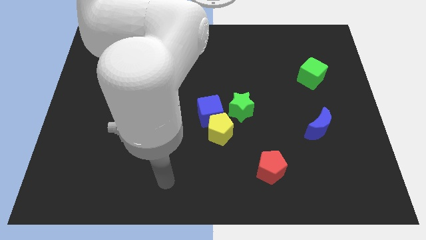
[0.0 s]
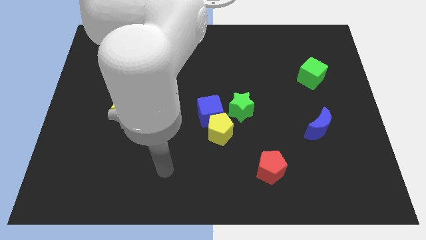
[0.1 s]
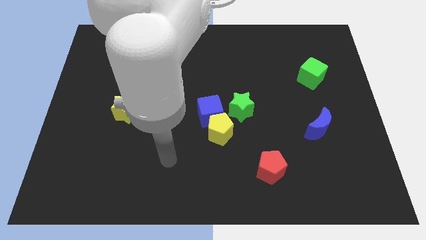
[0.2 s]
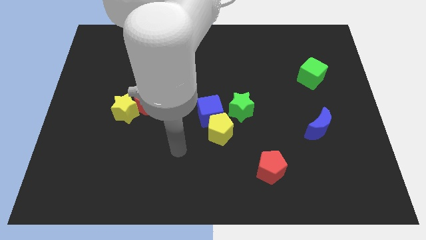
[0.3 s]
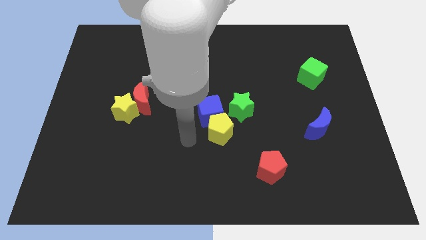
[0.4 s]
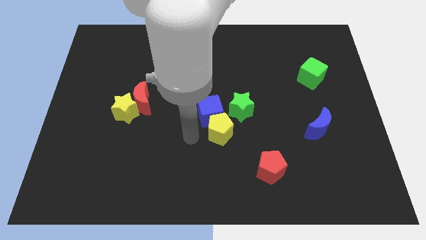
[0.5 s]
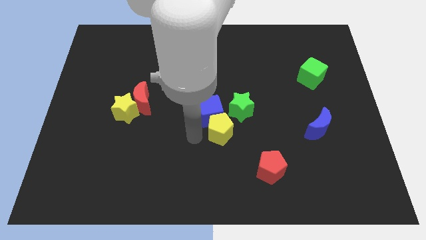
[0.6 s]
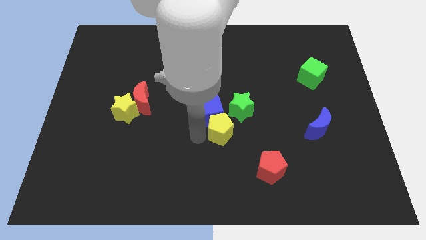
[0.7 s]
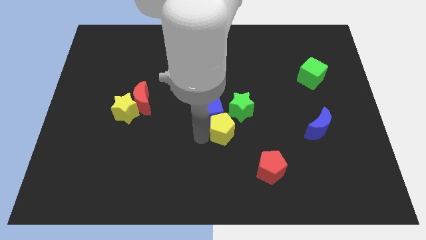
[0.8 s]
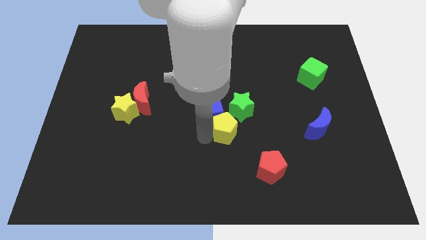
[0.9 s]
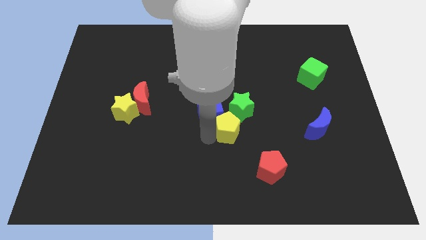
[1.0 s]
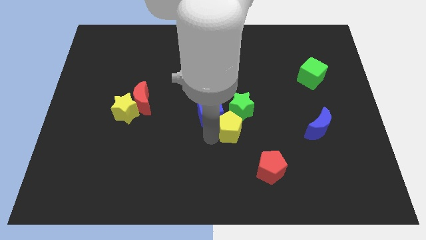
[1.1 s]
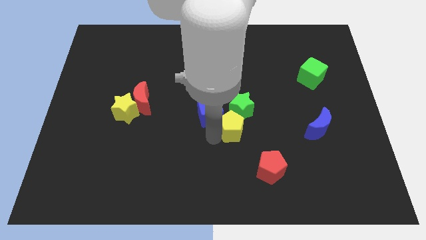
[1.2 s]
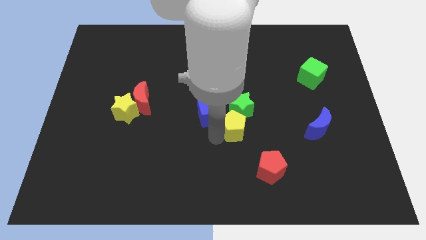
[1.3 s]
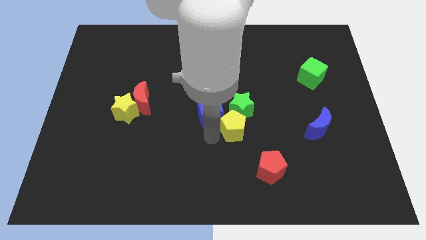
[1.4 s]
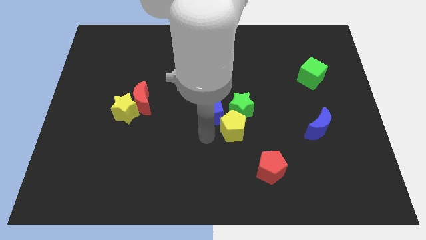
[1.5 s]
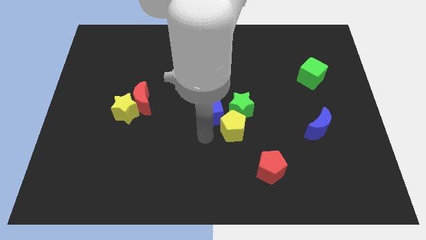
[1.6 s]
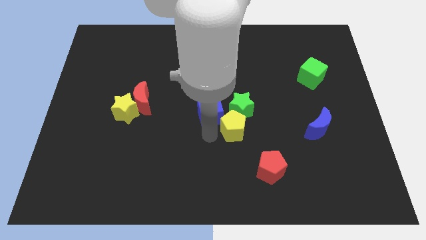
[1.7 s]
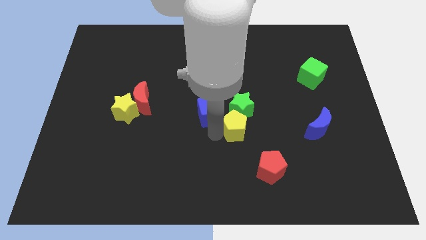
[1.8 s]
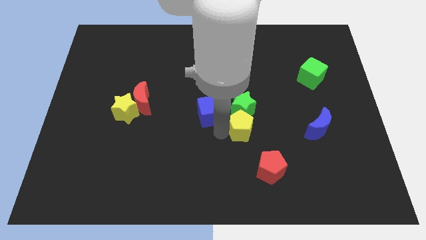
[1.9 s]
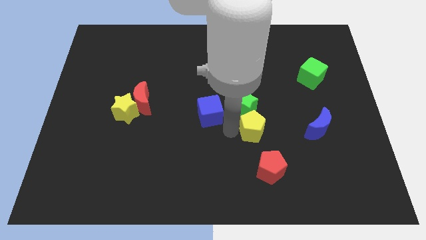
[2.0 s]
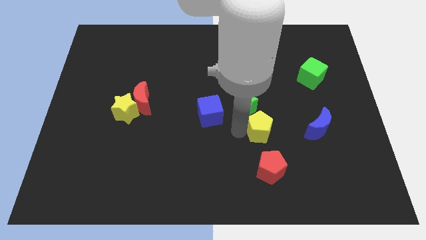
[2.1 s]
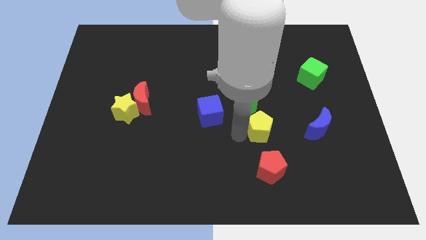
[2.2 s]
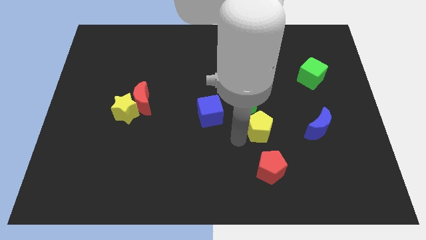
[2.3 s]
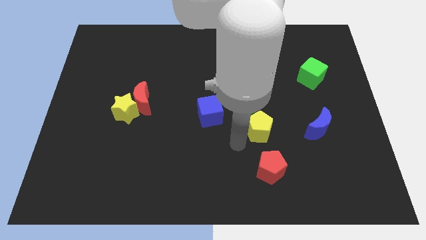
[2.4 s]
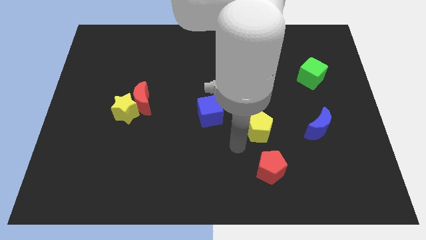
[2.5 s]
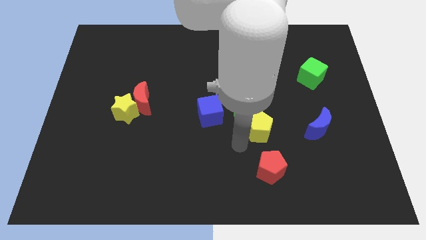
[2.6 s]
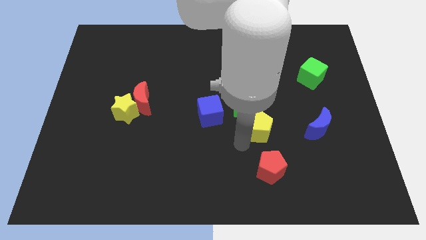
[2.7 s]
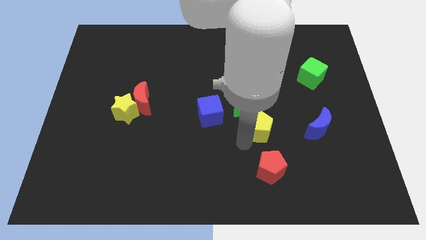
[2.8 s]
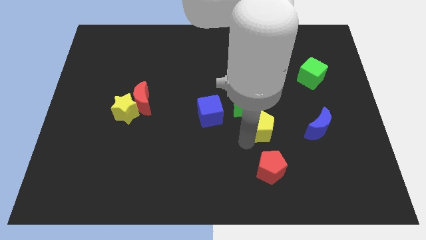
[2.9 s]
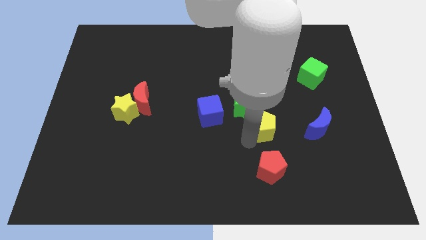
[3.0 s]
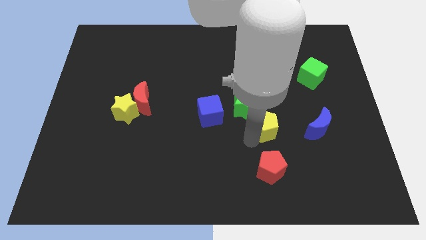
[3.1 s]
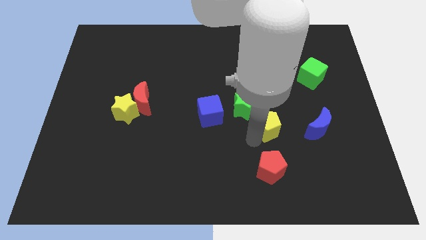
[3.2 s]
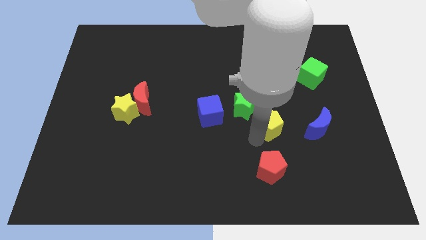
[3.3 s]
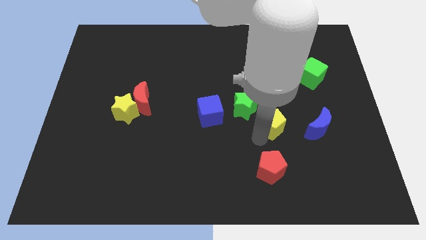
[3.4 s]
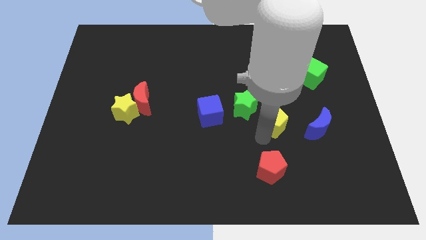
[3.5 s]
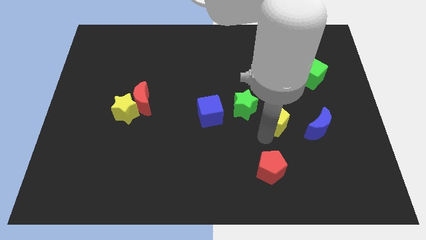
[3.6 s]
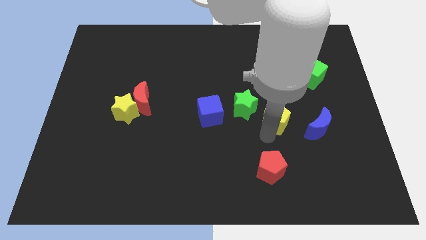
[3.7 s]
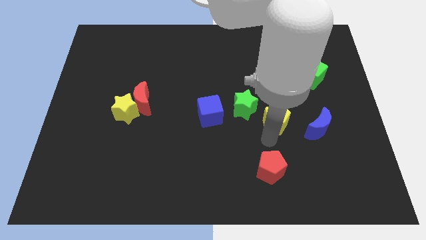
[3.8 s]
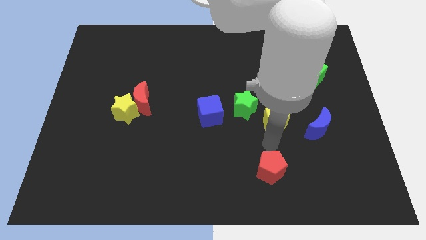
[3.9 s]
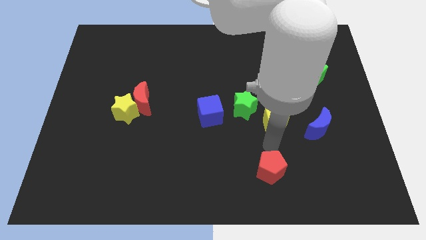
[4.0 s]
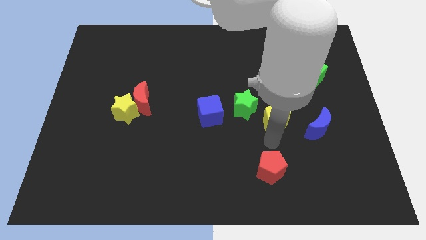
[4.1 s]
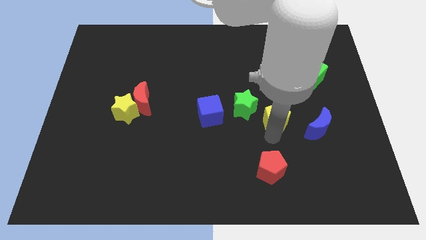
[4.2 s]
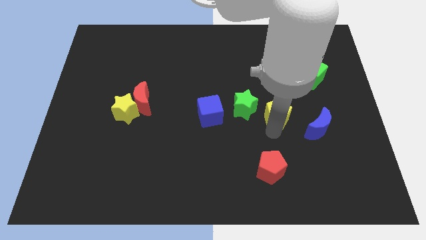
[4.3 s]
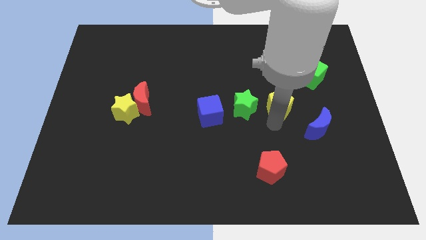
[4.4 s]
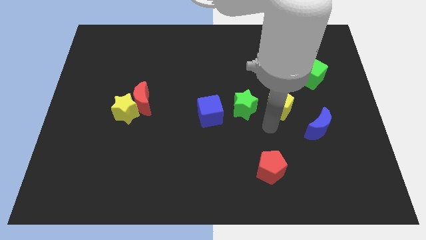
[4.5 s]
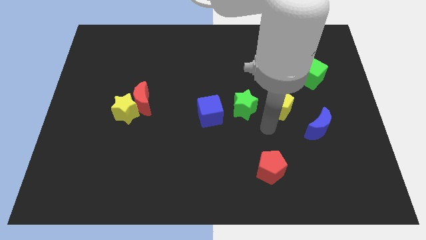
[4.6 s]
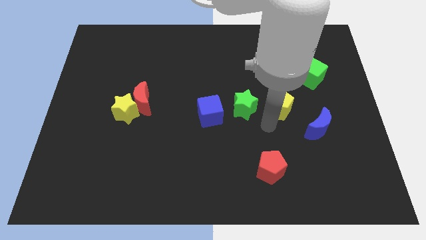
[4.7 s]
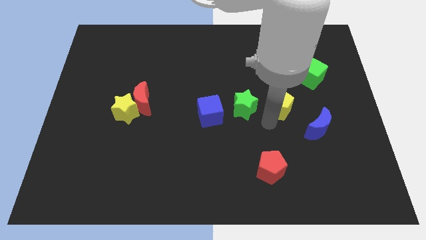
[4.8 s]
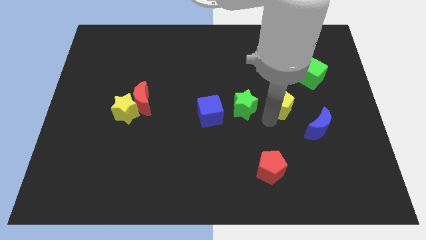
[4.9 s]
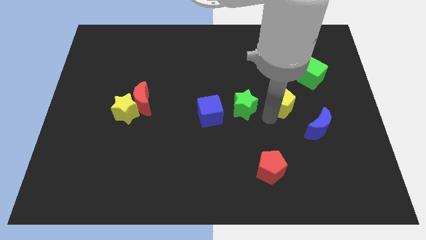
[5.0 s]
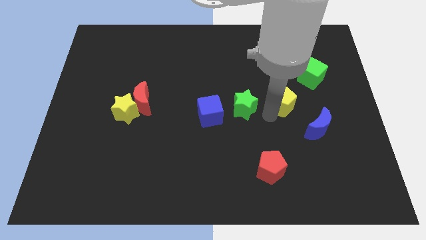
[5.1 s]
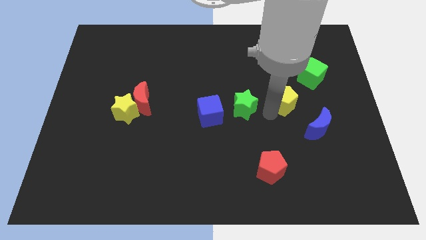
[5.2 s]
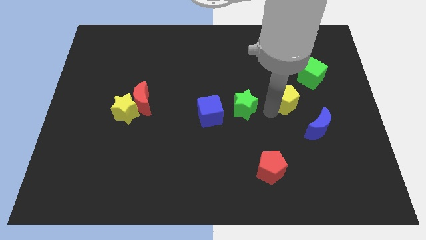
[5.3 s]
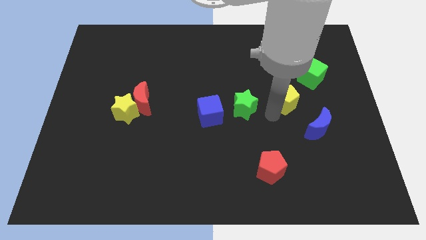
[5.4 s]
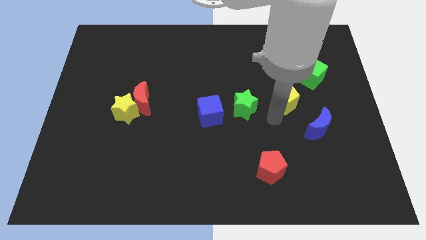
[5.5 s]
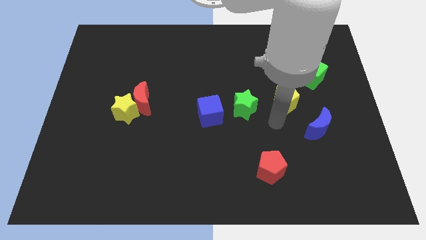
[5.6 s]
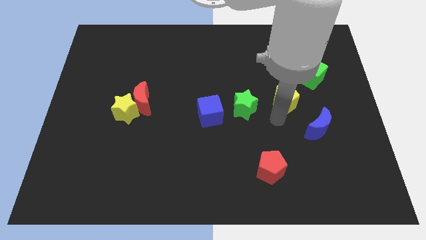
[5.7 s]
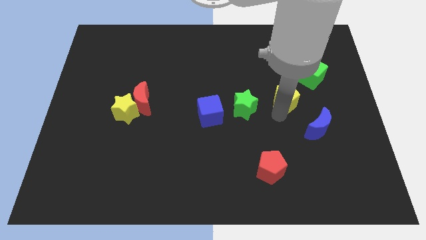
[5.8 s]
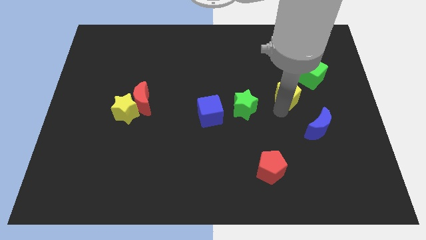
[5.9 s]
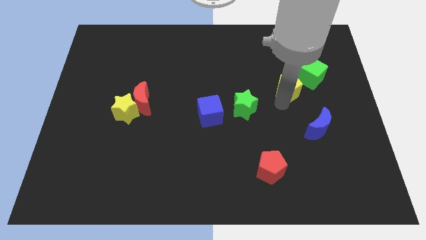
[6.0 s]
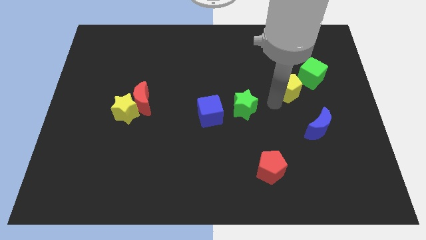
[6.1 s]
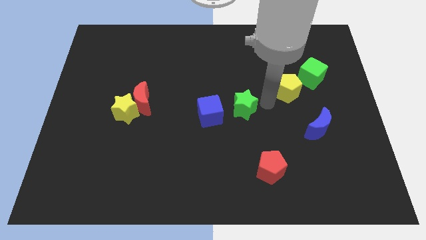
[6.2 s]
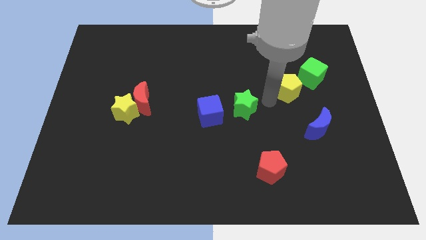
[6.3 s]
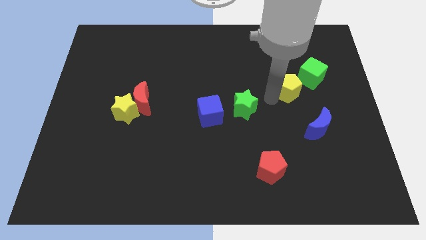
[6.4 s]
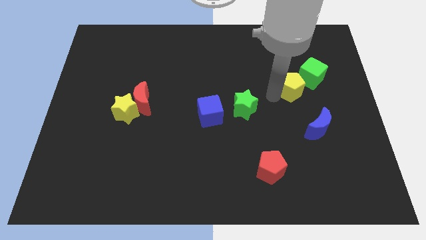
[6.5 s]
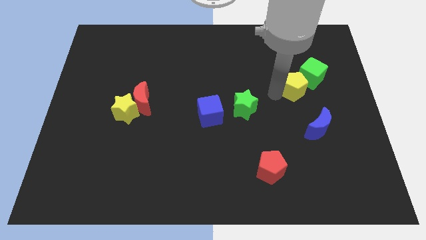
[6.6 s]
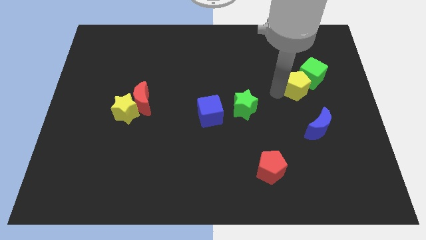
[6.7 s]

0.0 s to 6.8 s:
put the yellow pentagon close to the green cube

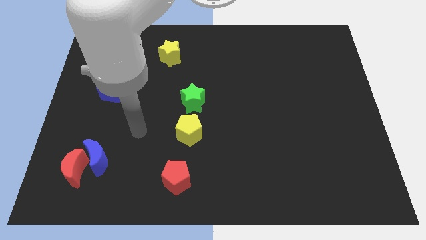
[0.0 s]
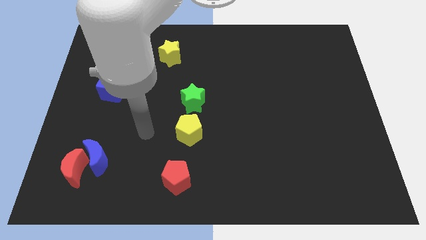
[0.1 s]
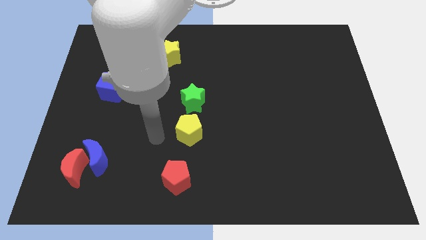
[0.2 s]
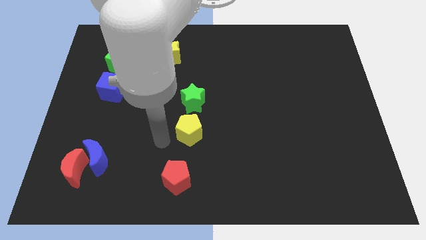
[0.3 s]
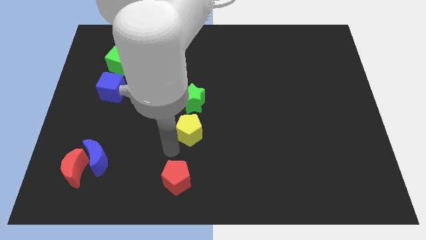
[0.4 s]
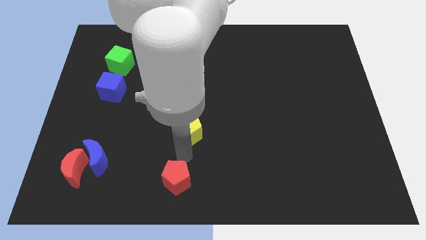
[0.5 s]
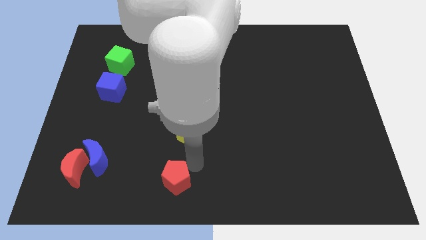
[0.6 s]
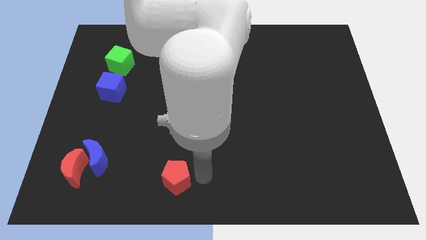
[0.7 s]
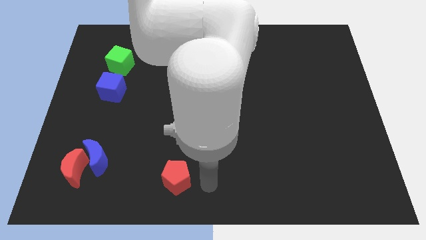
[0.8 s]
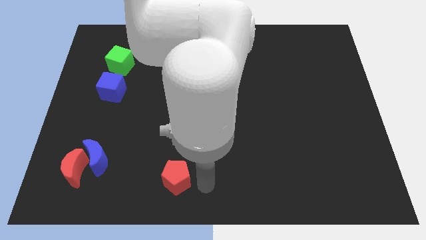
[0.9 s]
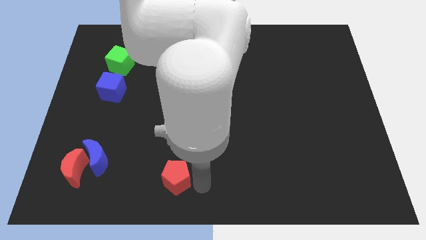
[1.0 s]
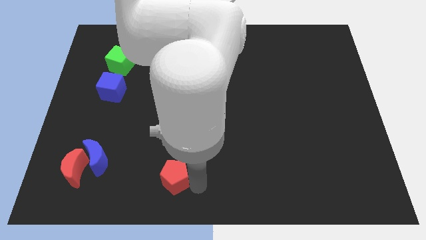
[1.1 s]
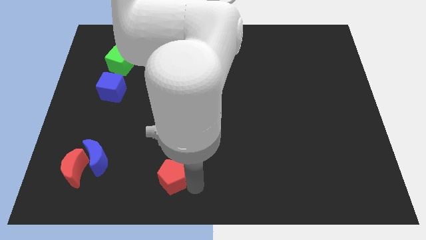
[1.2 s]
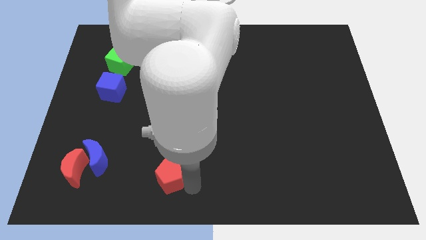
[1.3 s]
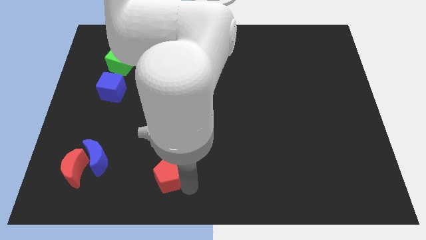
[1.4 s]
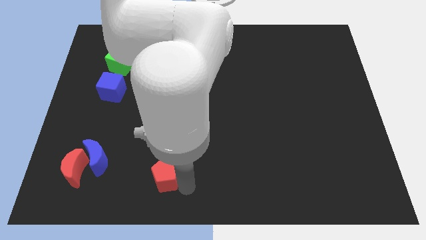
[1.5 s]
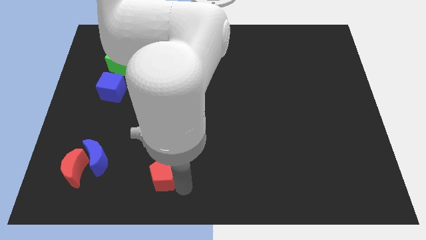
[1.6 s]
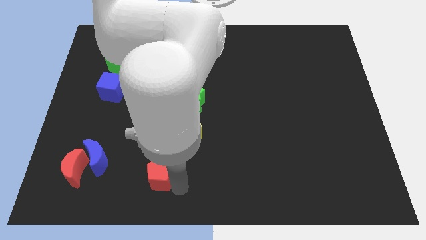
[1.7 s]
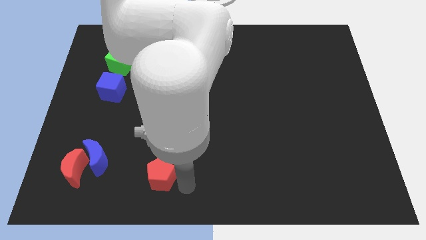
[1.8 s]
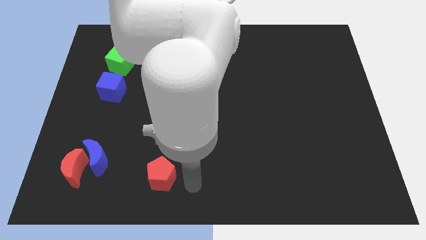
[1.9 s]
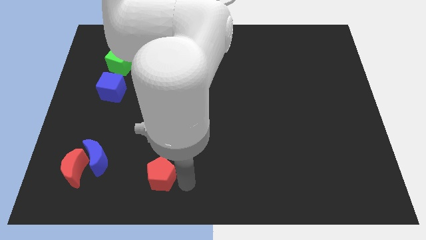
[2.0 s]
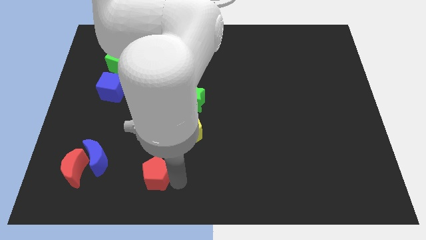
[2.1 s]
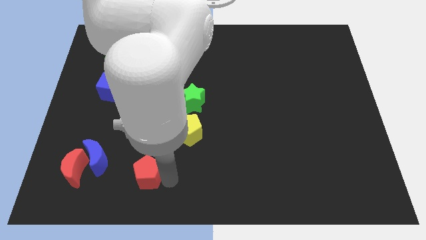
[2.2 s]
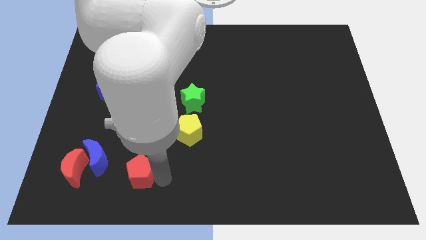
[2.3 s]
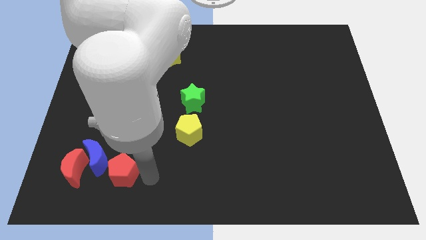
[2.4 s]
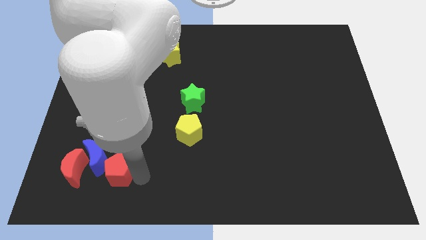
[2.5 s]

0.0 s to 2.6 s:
put the red pentagon next to the blue moon
